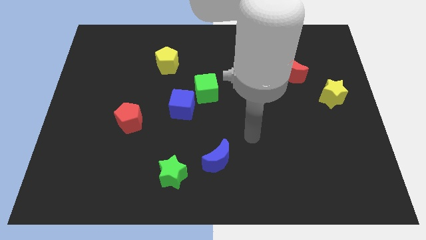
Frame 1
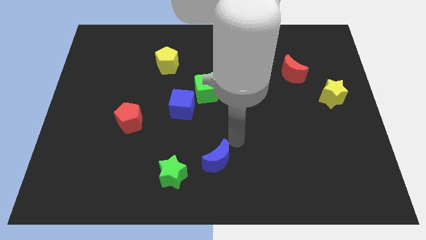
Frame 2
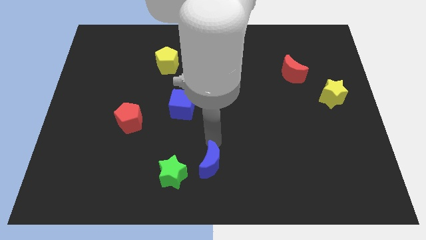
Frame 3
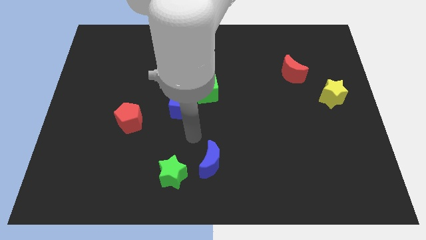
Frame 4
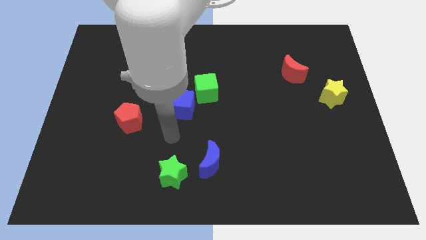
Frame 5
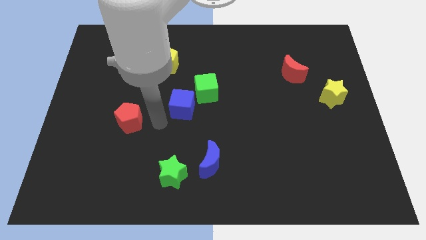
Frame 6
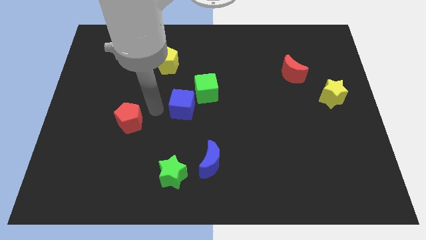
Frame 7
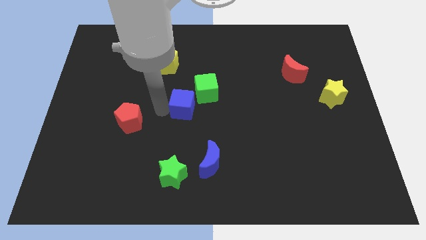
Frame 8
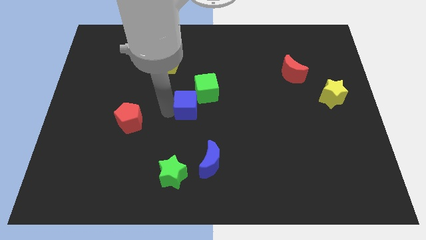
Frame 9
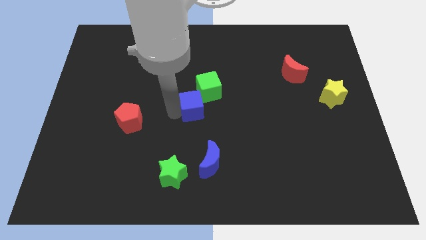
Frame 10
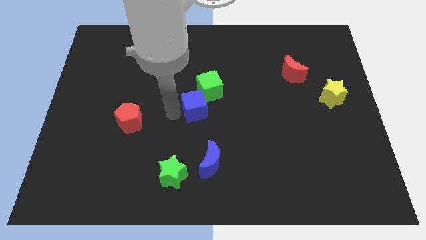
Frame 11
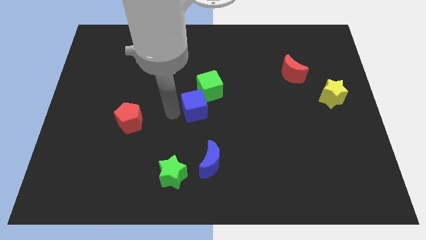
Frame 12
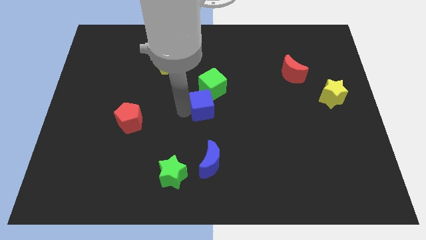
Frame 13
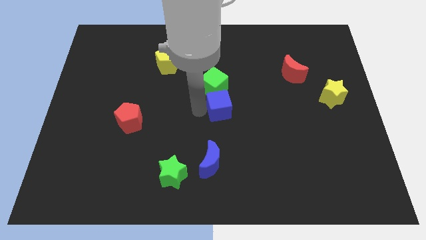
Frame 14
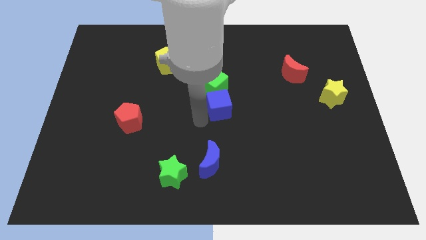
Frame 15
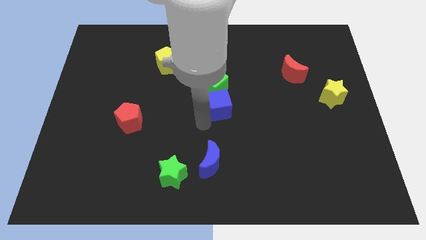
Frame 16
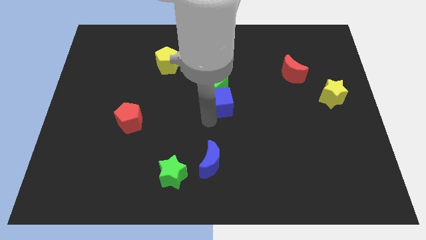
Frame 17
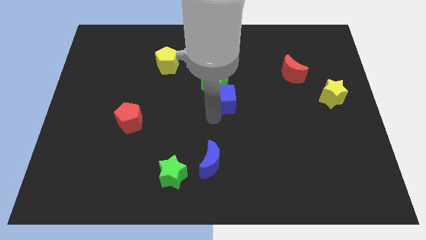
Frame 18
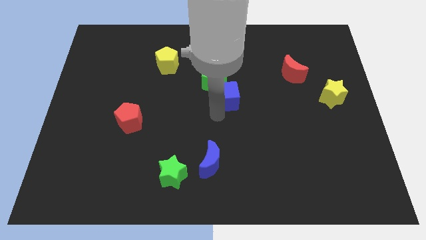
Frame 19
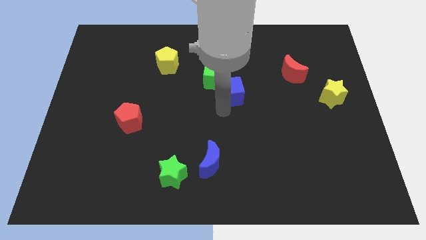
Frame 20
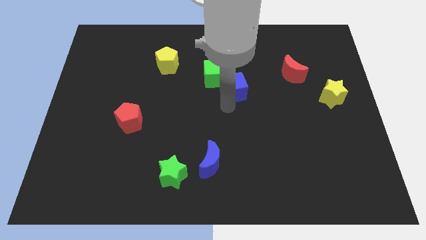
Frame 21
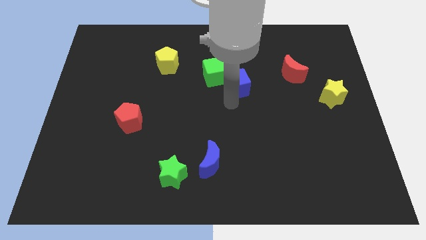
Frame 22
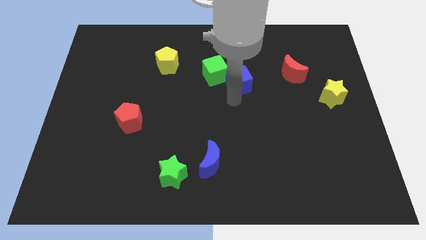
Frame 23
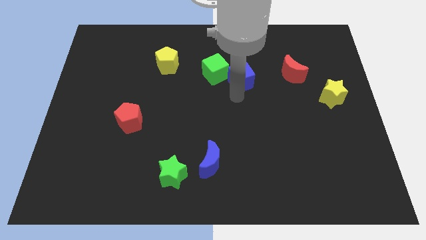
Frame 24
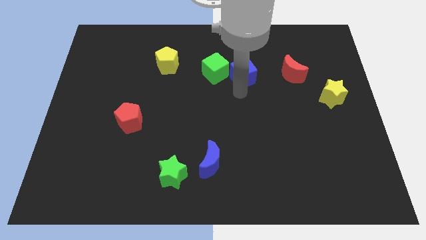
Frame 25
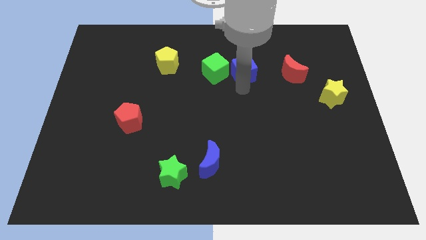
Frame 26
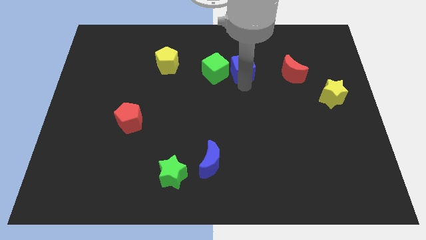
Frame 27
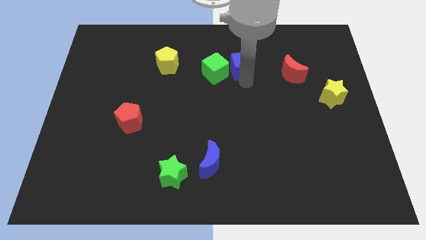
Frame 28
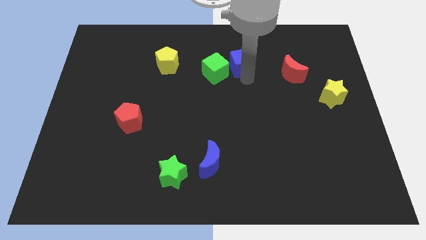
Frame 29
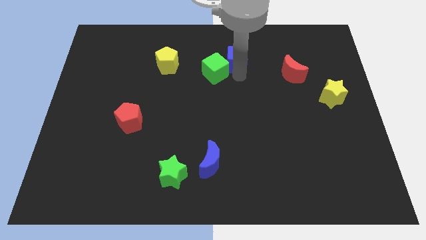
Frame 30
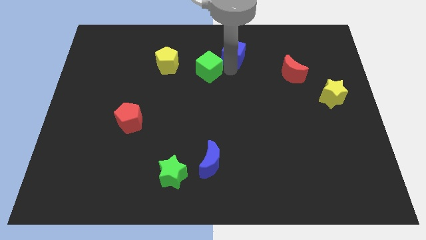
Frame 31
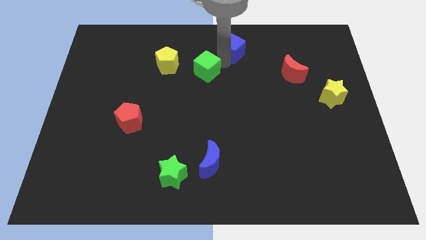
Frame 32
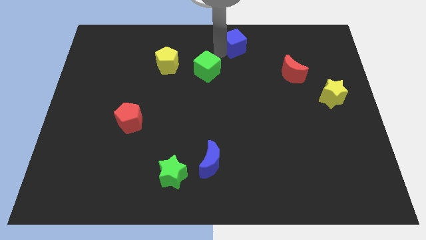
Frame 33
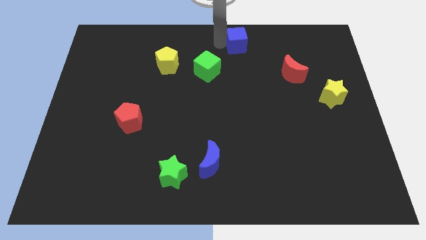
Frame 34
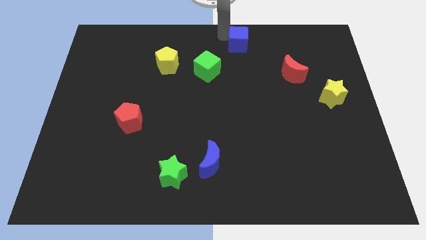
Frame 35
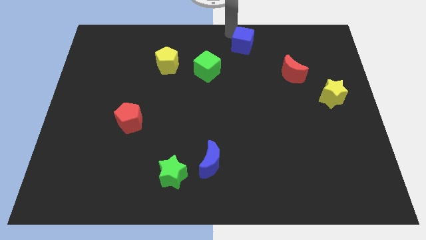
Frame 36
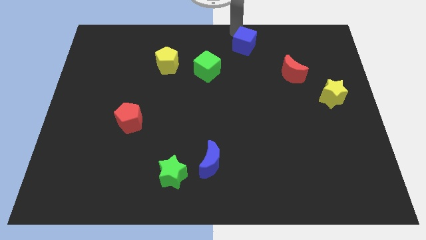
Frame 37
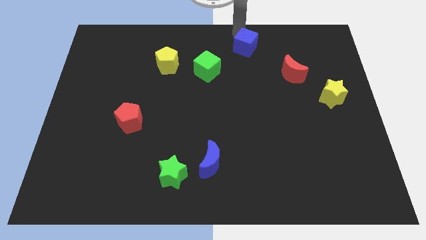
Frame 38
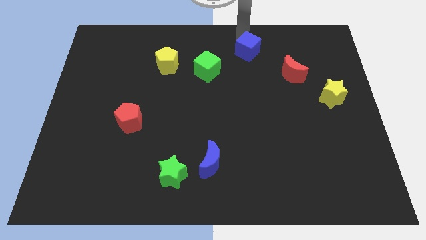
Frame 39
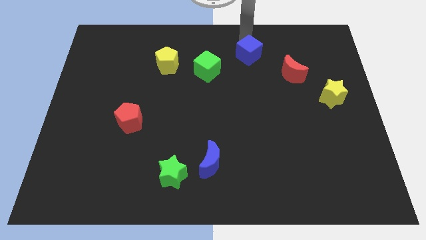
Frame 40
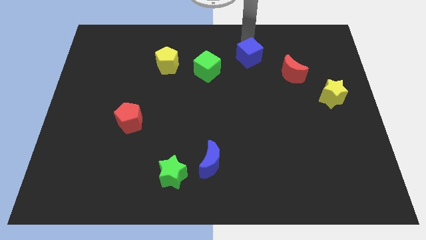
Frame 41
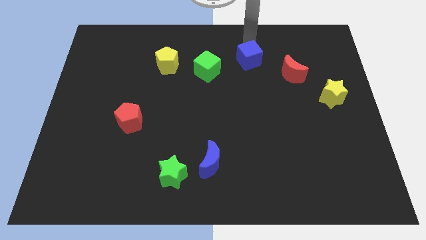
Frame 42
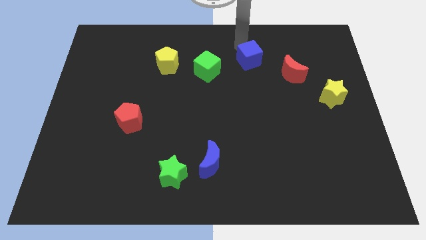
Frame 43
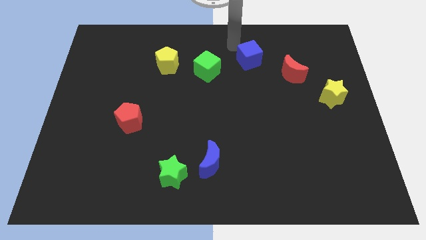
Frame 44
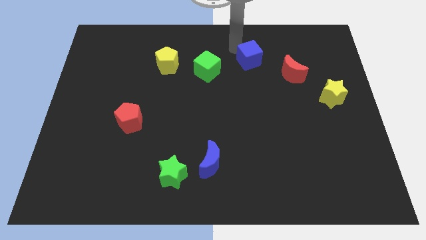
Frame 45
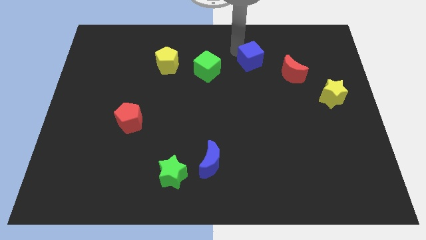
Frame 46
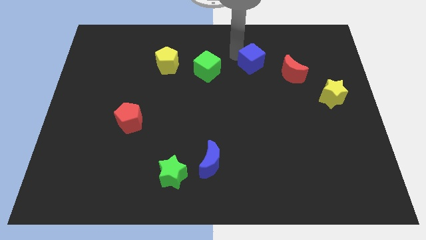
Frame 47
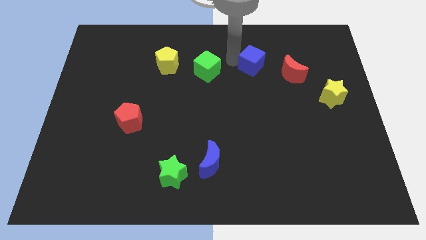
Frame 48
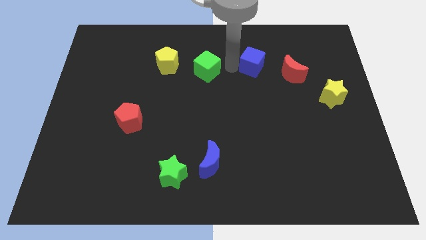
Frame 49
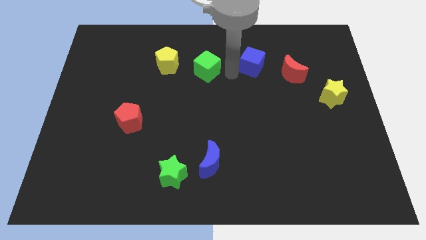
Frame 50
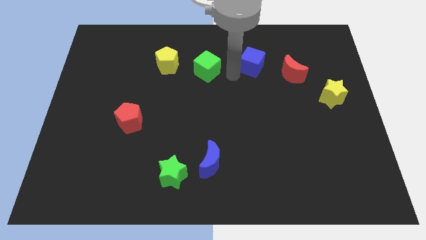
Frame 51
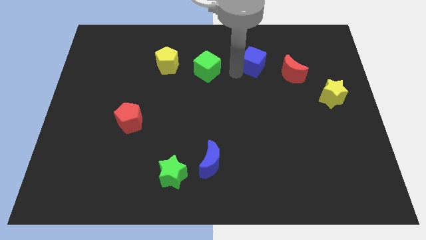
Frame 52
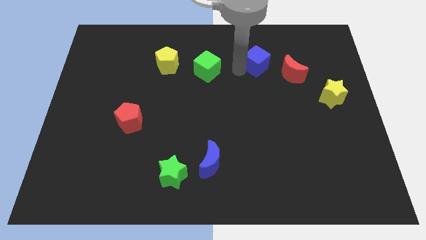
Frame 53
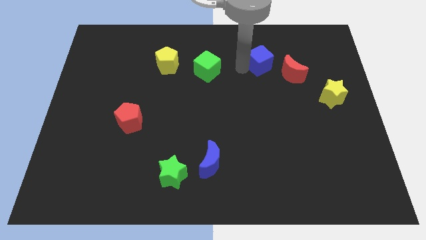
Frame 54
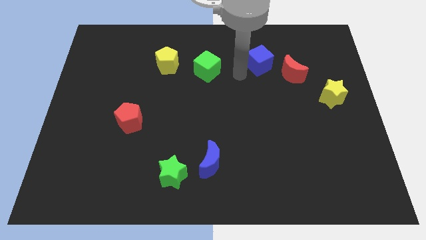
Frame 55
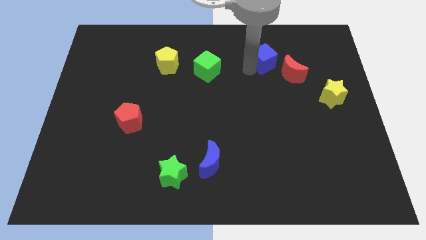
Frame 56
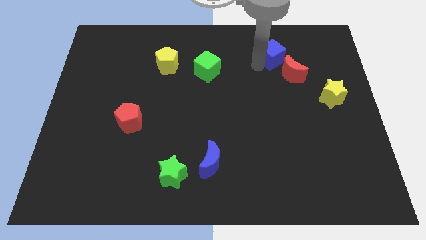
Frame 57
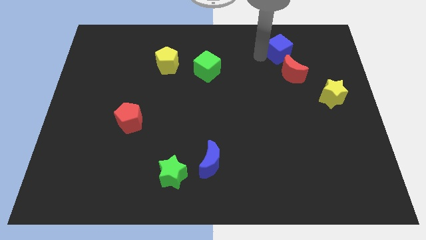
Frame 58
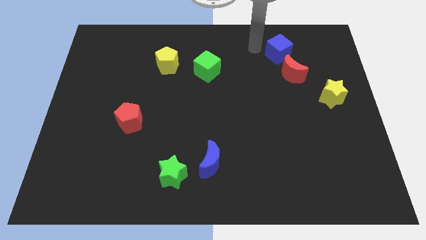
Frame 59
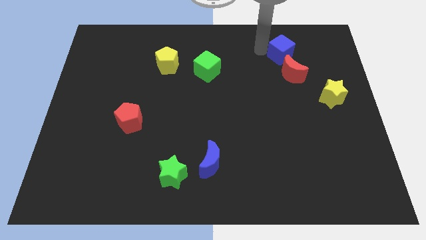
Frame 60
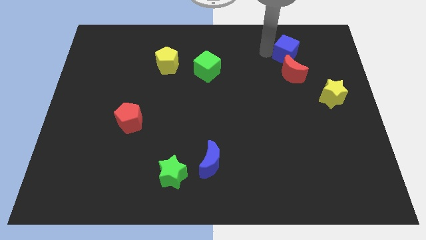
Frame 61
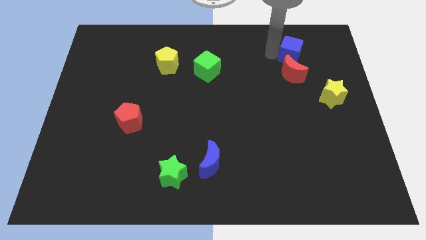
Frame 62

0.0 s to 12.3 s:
put the blue cube diagonally up and to the right of the red moon

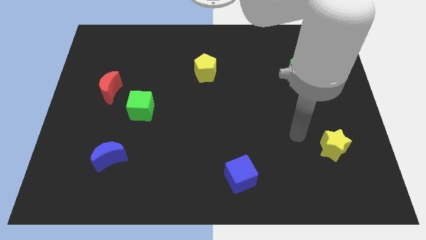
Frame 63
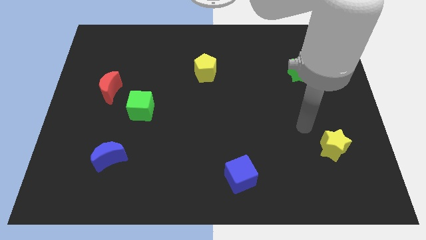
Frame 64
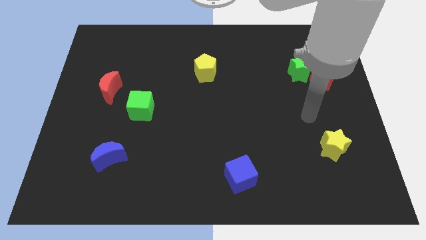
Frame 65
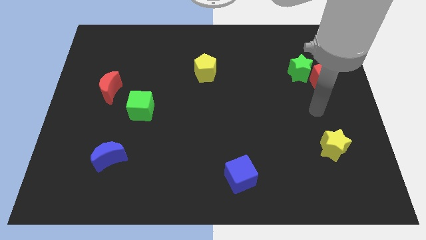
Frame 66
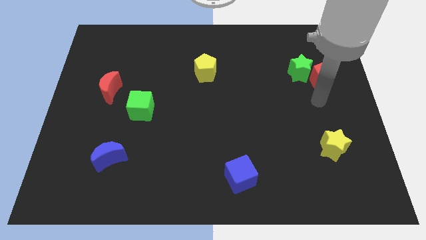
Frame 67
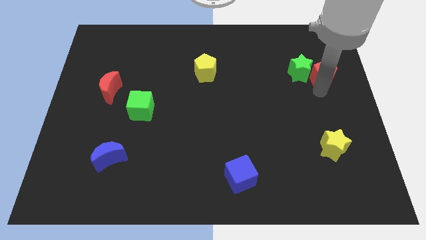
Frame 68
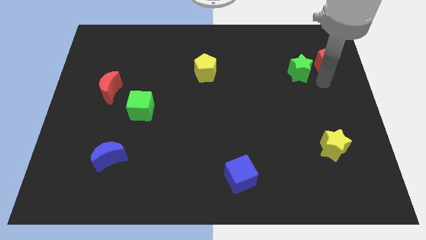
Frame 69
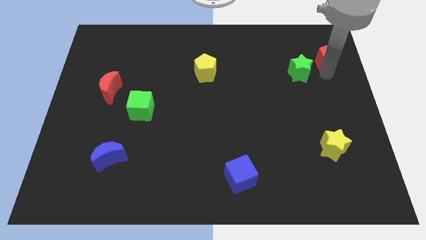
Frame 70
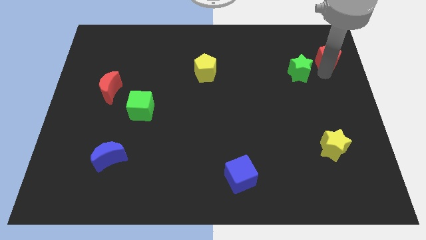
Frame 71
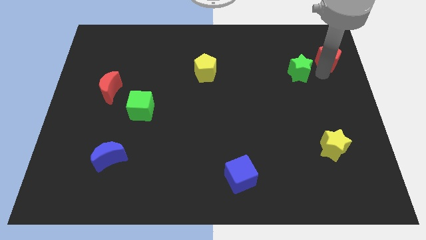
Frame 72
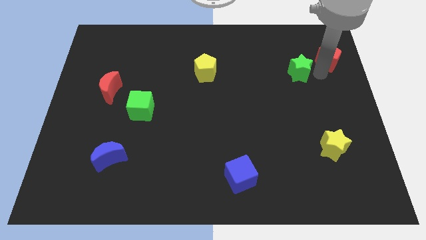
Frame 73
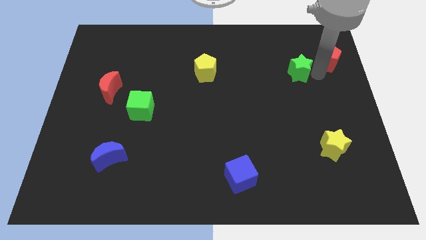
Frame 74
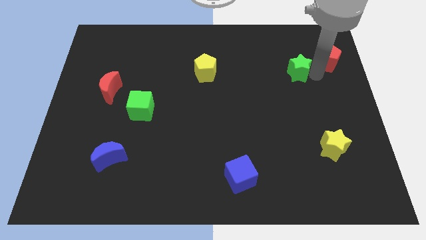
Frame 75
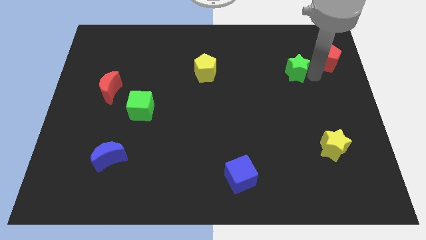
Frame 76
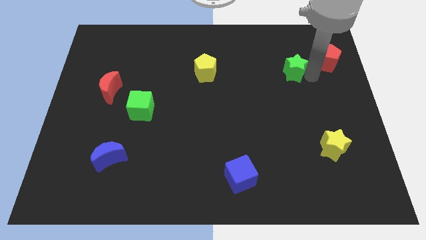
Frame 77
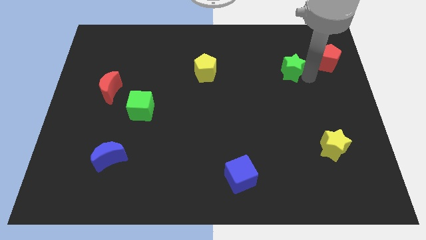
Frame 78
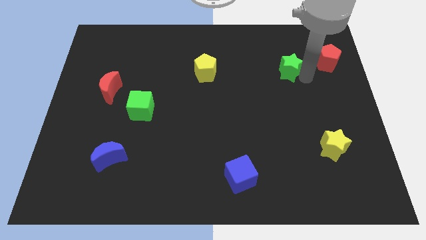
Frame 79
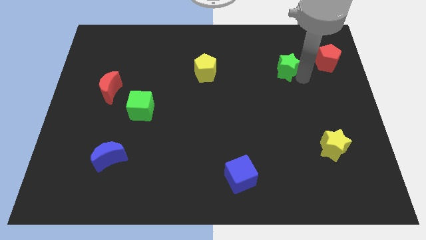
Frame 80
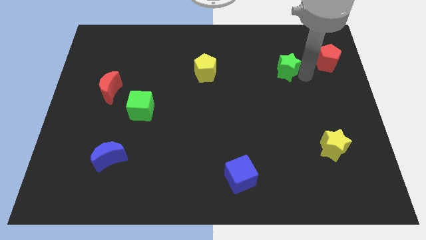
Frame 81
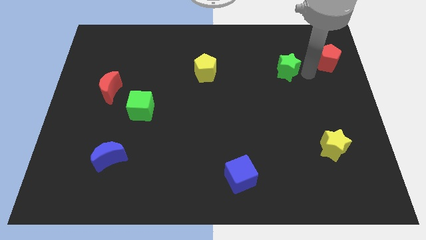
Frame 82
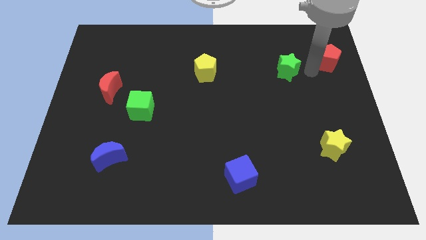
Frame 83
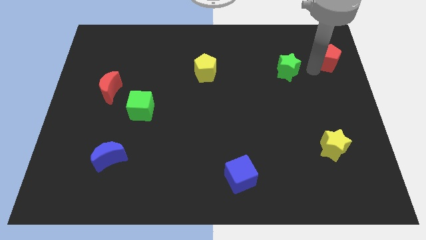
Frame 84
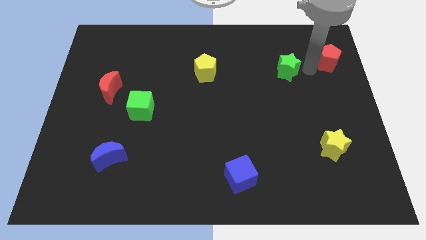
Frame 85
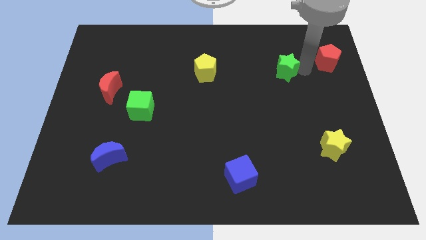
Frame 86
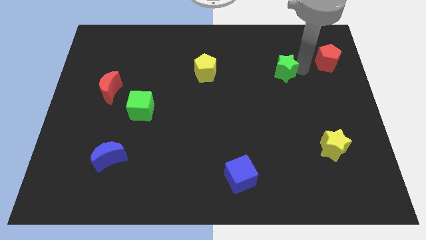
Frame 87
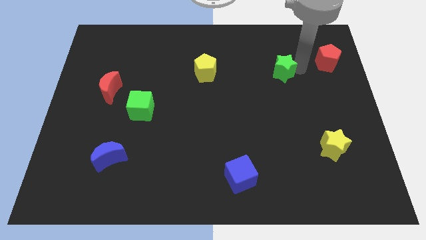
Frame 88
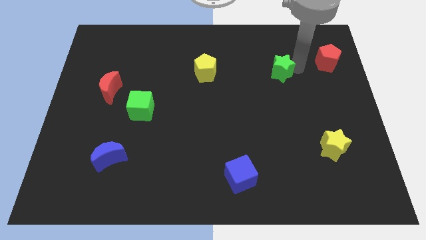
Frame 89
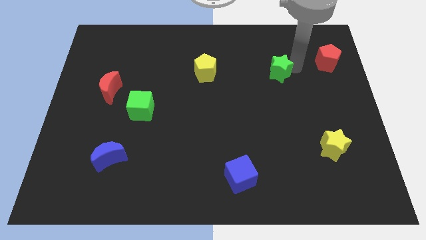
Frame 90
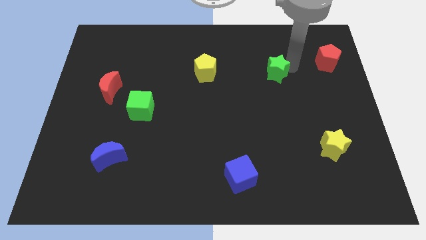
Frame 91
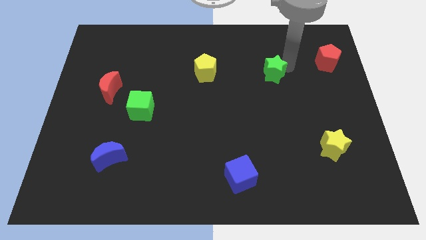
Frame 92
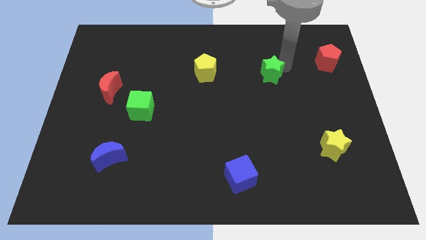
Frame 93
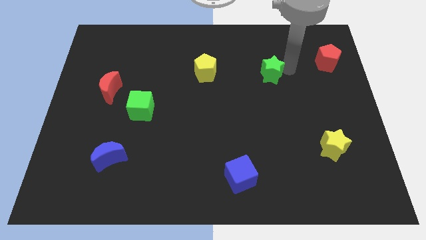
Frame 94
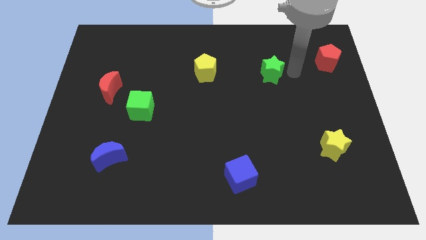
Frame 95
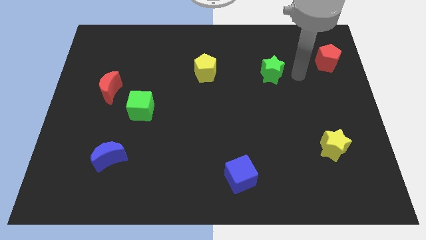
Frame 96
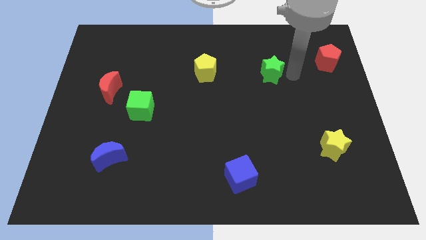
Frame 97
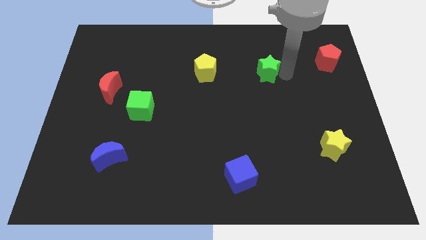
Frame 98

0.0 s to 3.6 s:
move the green star right of the yellow pentagon
